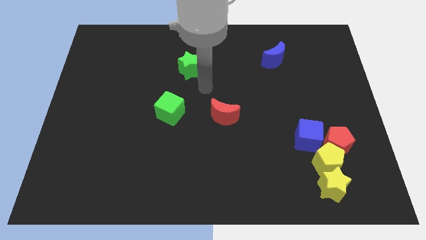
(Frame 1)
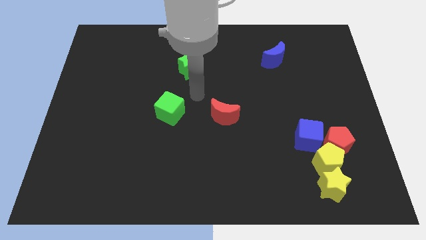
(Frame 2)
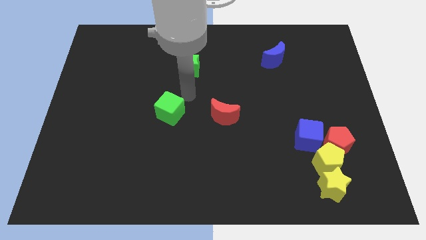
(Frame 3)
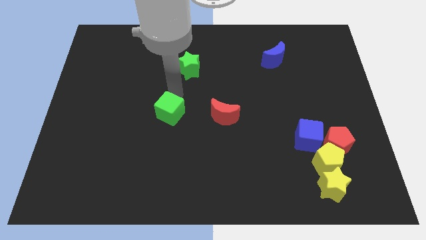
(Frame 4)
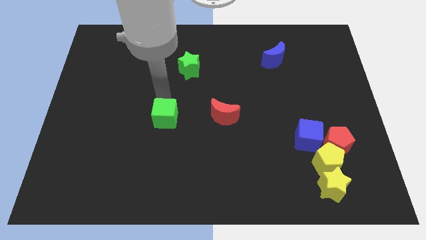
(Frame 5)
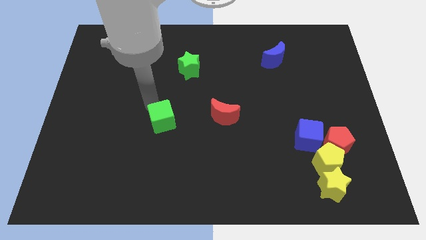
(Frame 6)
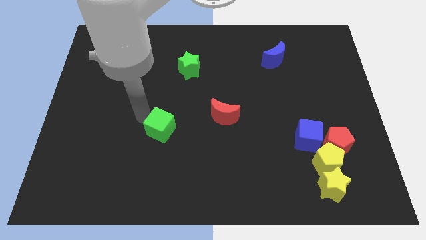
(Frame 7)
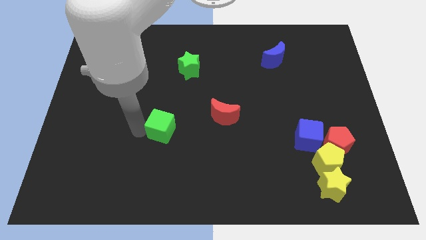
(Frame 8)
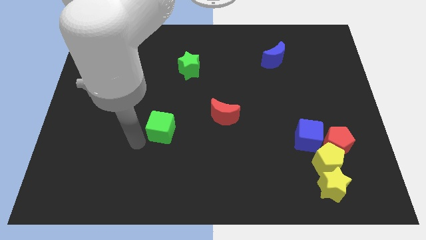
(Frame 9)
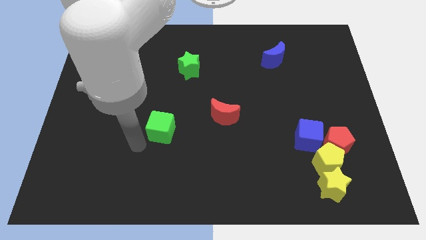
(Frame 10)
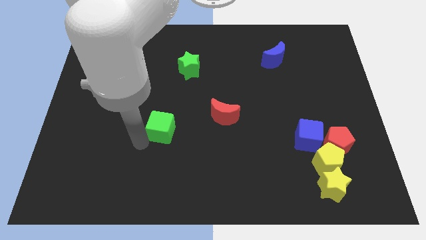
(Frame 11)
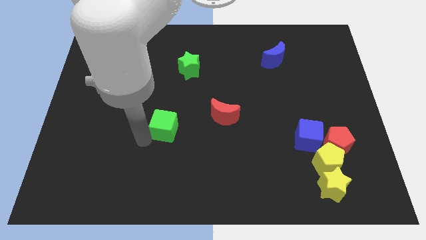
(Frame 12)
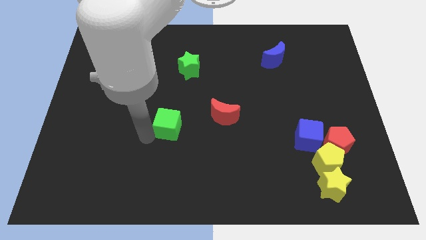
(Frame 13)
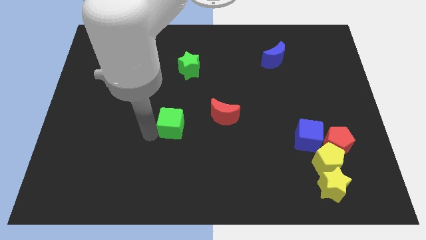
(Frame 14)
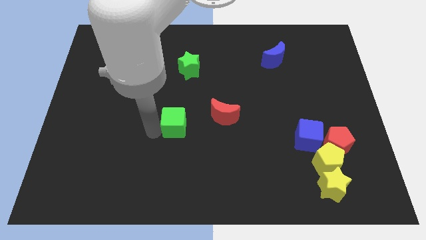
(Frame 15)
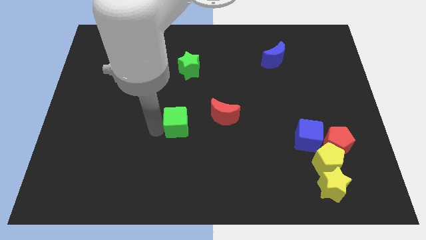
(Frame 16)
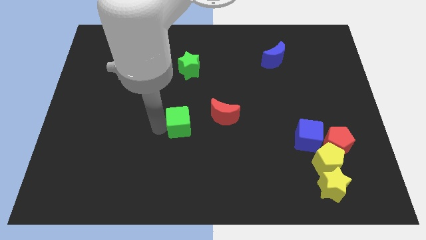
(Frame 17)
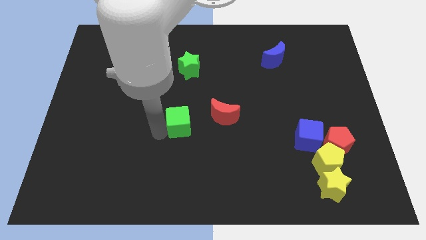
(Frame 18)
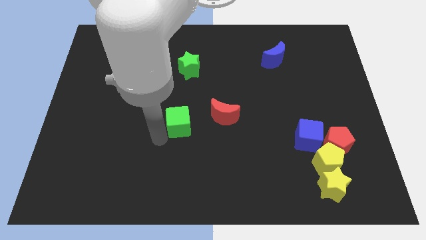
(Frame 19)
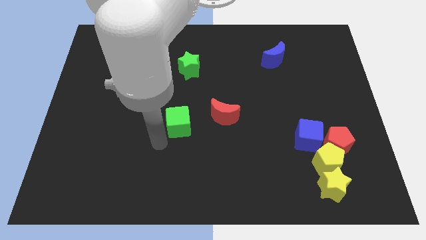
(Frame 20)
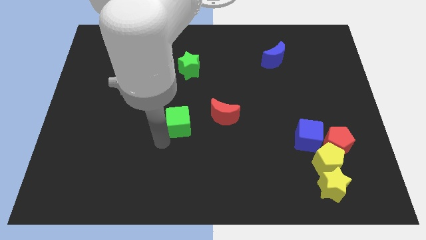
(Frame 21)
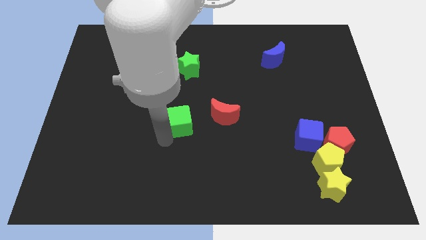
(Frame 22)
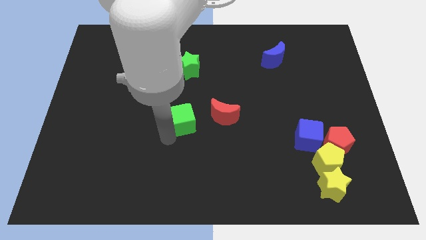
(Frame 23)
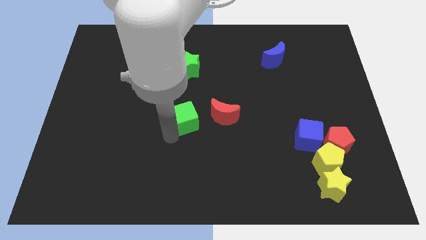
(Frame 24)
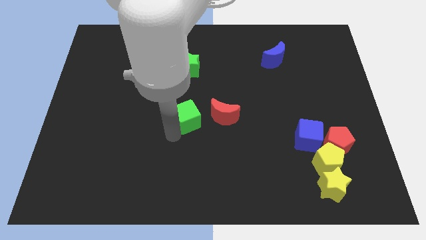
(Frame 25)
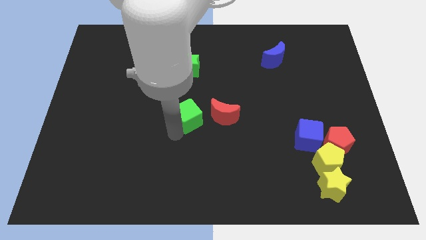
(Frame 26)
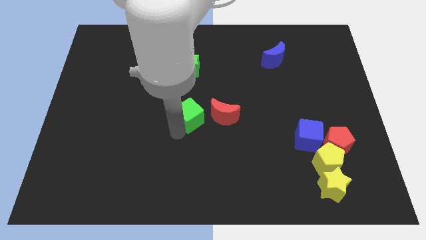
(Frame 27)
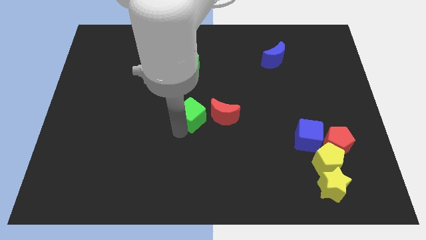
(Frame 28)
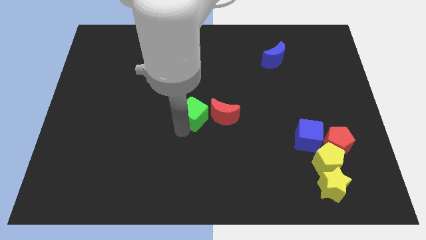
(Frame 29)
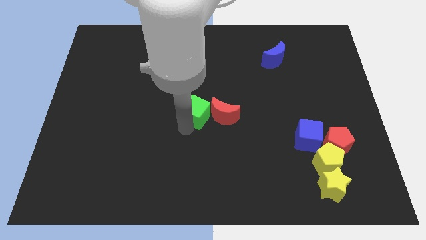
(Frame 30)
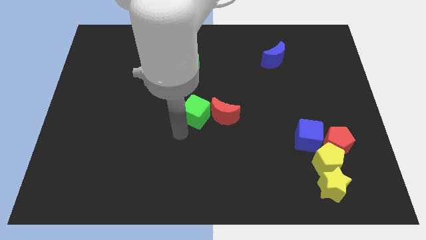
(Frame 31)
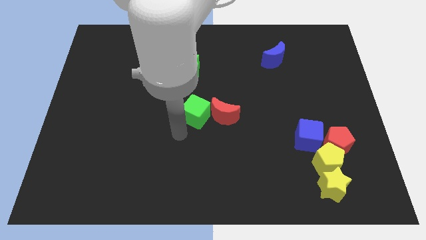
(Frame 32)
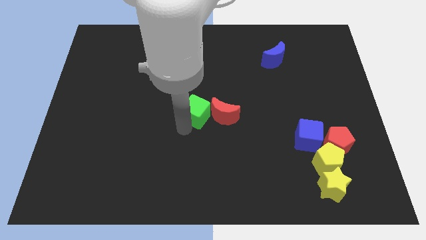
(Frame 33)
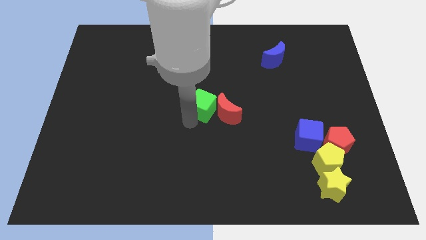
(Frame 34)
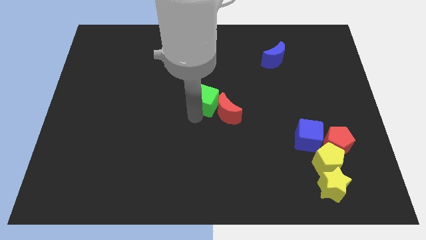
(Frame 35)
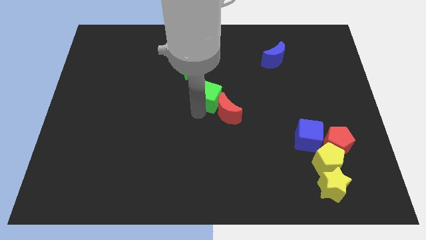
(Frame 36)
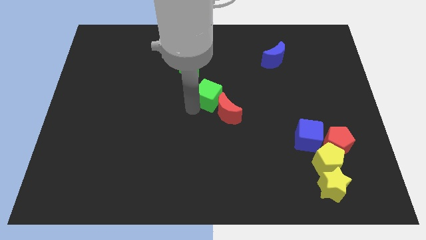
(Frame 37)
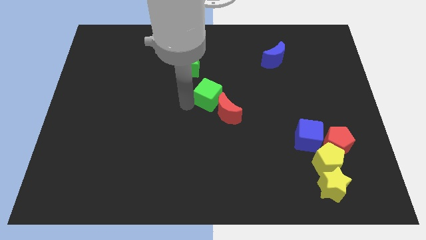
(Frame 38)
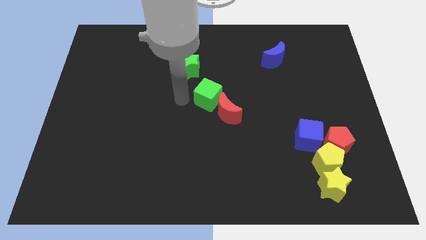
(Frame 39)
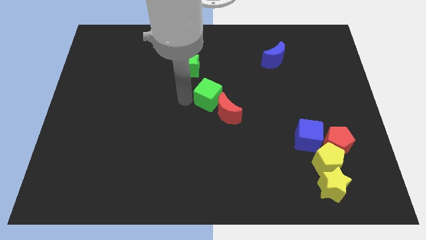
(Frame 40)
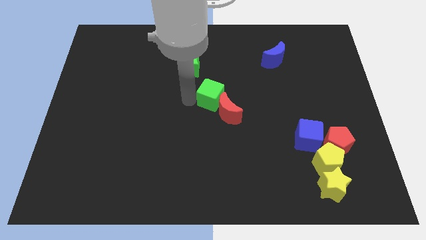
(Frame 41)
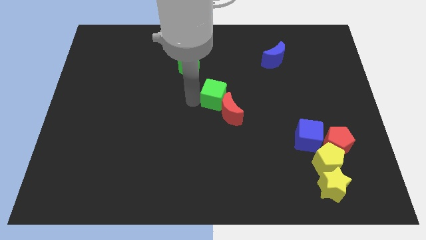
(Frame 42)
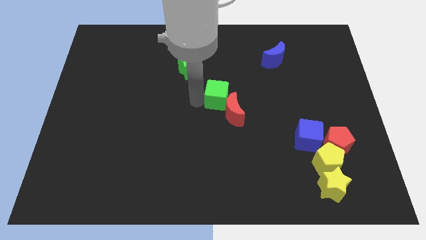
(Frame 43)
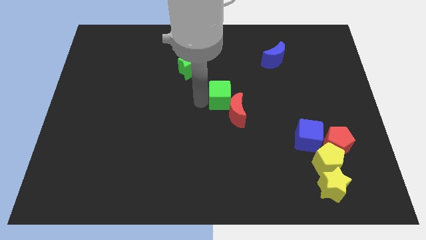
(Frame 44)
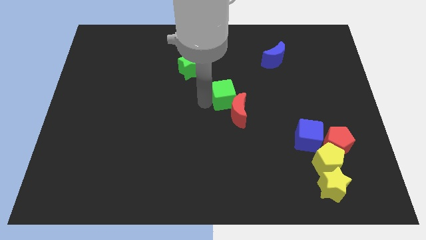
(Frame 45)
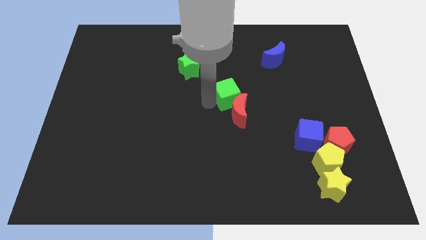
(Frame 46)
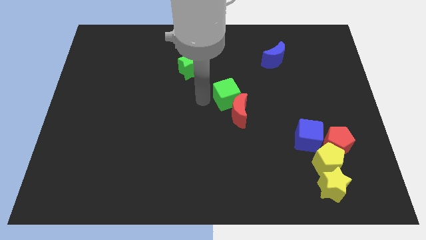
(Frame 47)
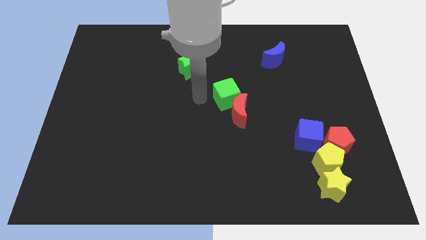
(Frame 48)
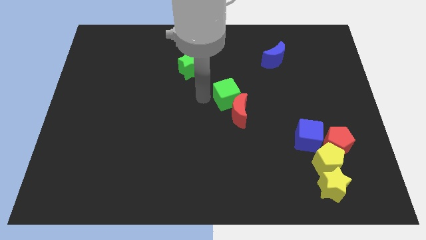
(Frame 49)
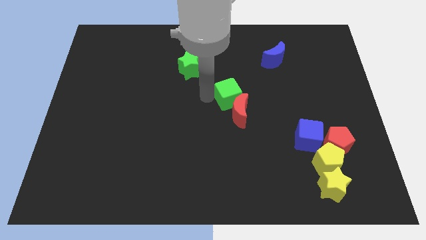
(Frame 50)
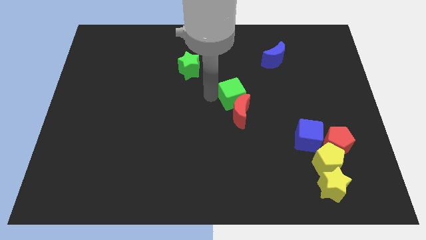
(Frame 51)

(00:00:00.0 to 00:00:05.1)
move the green cube diagonally up and to the right of the red moon

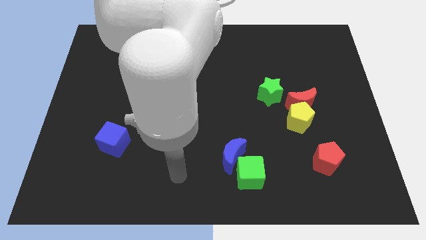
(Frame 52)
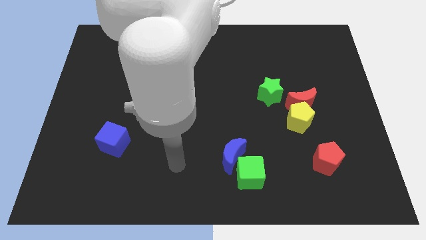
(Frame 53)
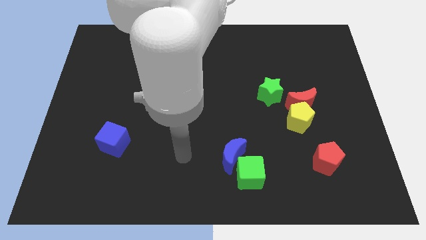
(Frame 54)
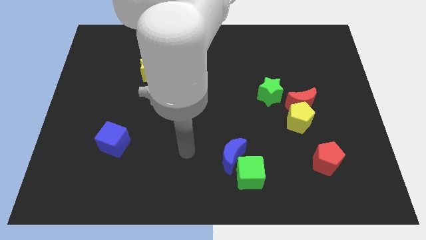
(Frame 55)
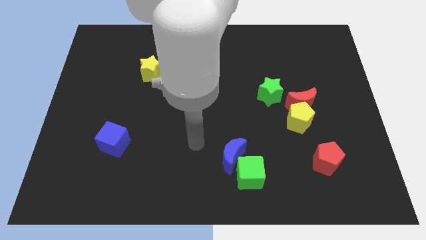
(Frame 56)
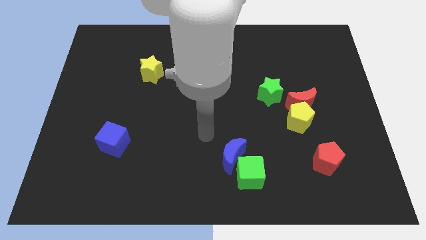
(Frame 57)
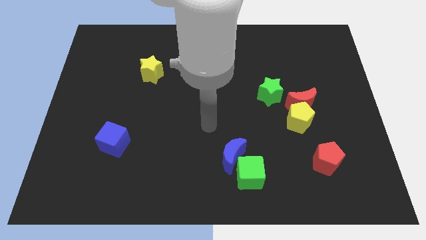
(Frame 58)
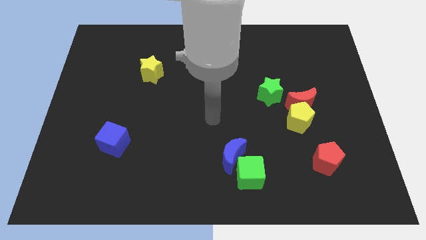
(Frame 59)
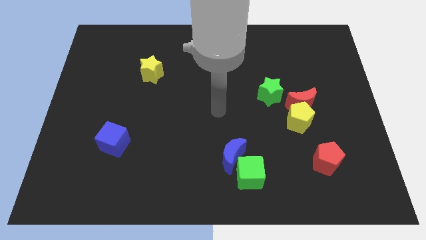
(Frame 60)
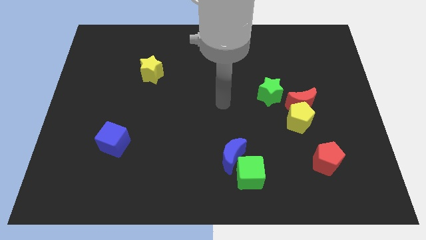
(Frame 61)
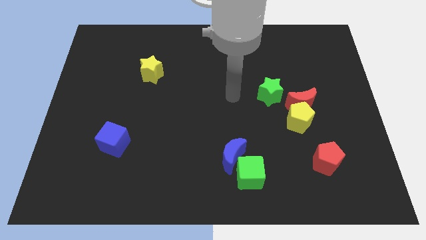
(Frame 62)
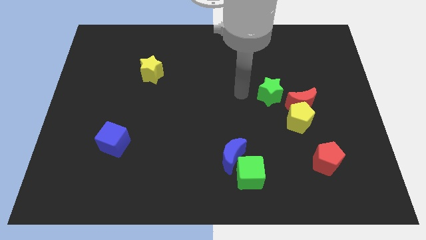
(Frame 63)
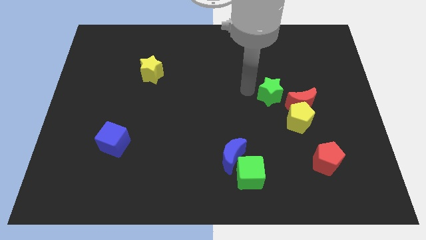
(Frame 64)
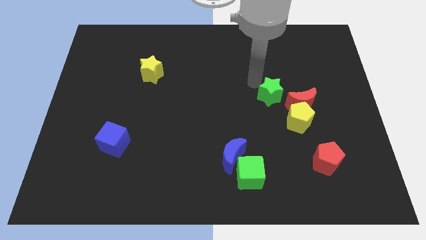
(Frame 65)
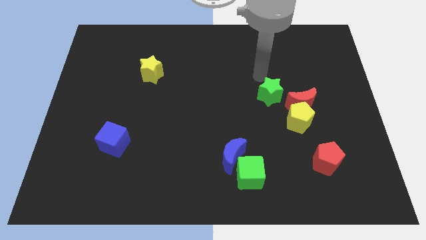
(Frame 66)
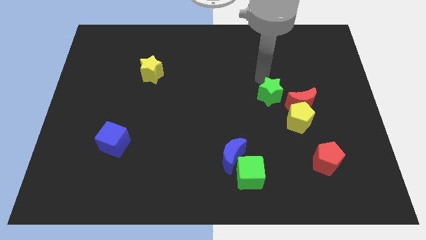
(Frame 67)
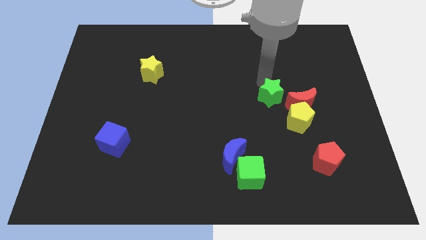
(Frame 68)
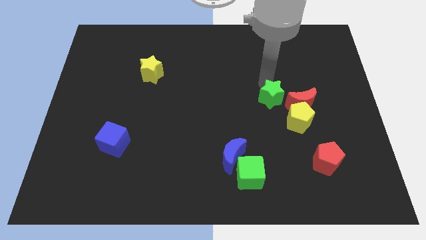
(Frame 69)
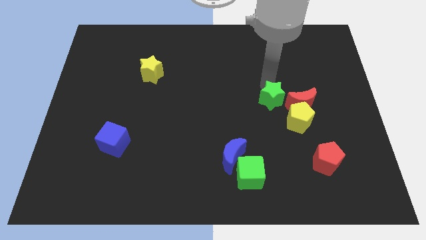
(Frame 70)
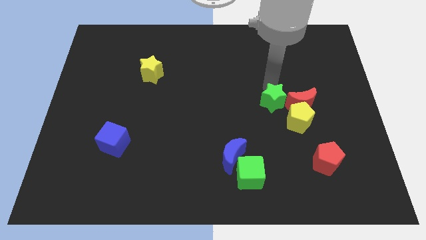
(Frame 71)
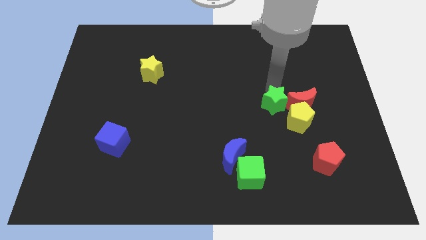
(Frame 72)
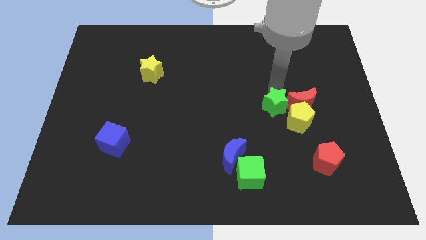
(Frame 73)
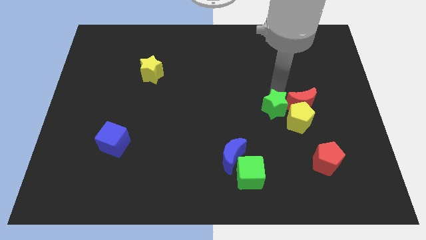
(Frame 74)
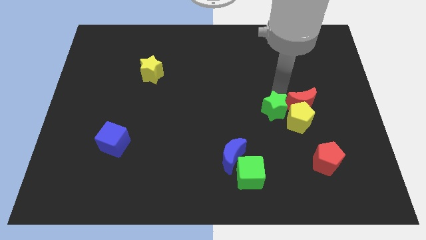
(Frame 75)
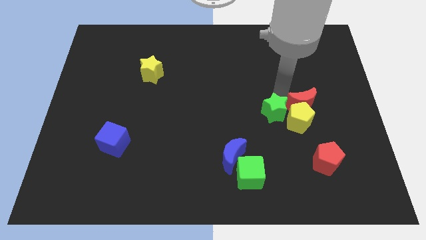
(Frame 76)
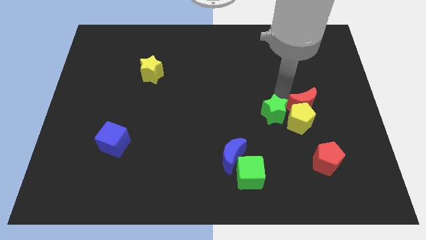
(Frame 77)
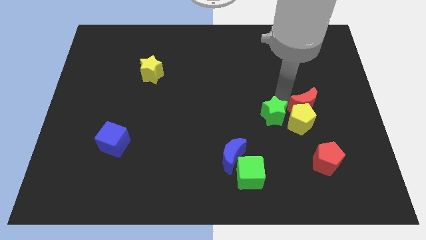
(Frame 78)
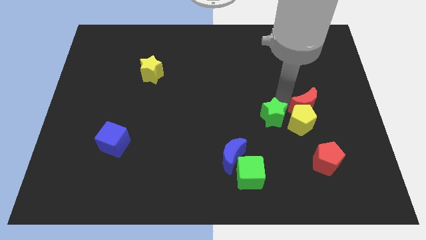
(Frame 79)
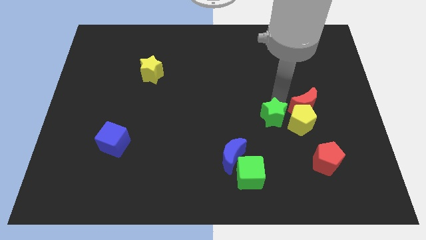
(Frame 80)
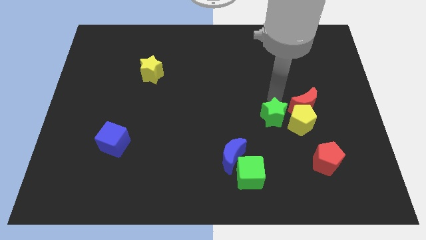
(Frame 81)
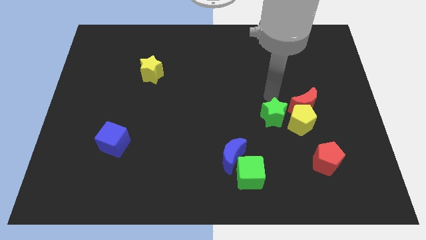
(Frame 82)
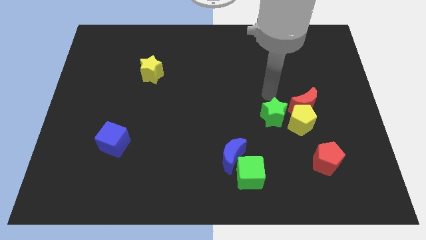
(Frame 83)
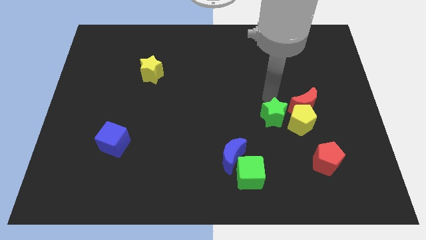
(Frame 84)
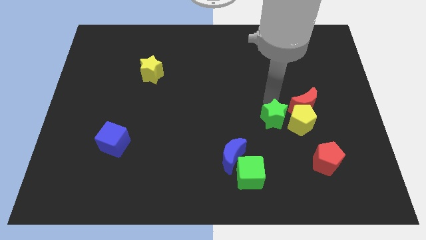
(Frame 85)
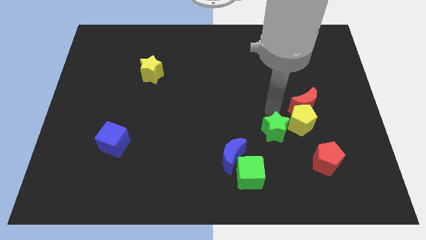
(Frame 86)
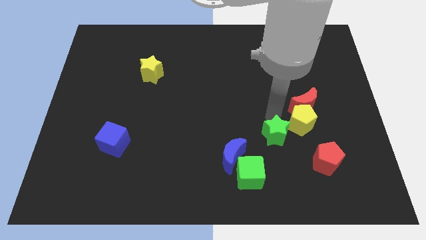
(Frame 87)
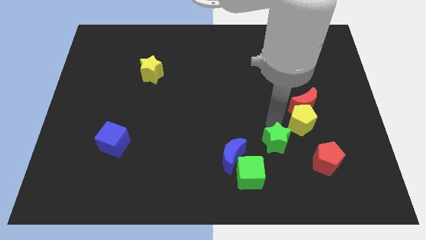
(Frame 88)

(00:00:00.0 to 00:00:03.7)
slide the green star right of the blue moon
